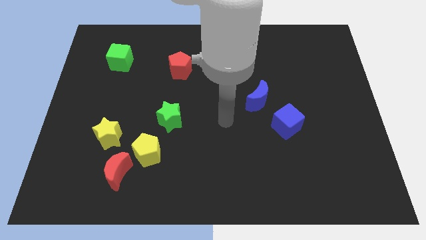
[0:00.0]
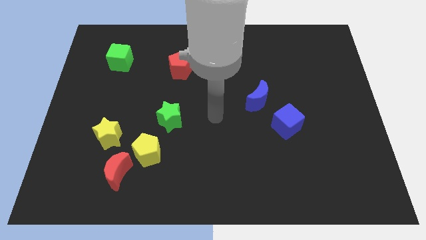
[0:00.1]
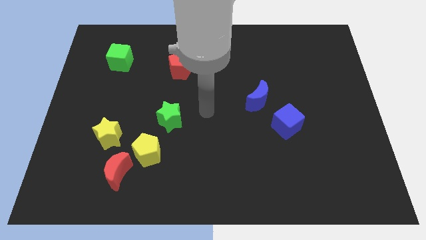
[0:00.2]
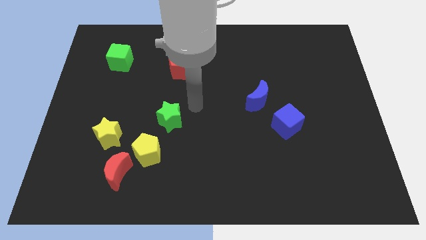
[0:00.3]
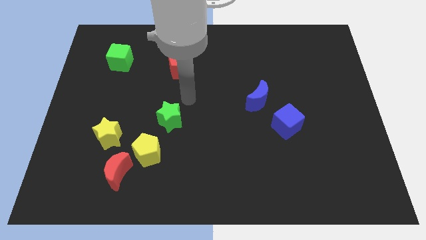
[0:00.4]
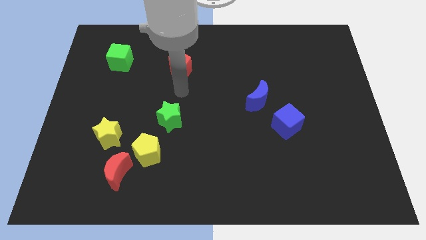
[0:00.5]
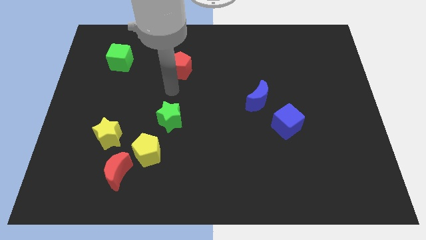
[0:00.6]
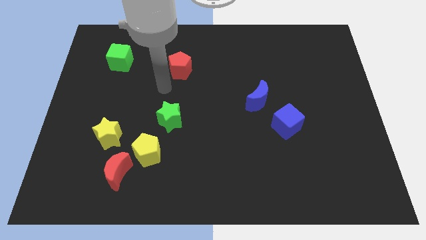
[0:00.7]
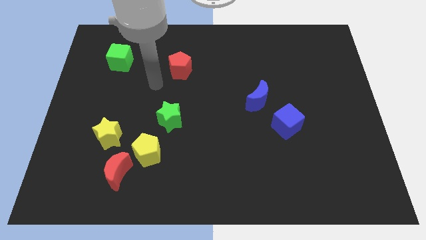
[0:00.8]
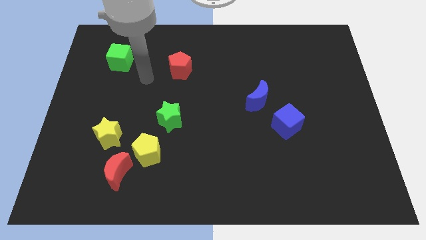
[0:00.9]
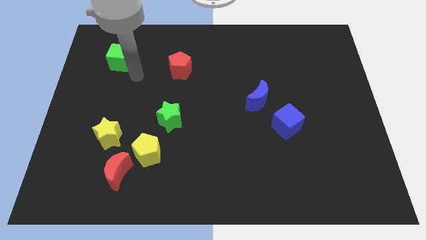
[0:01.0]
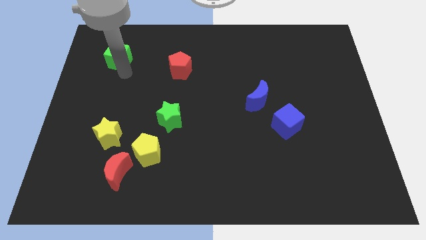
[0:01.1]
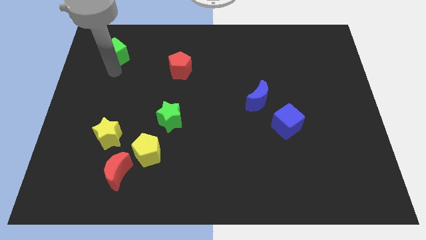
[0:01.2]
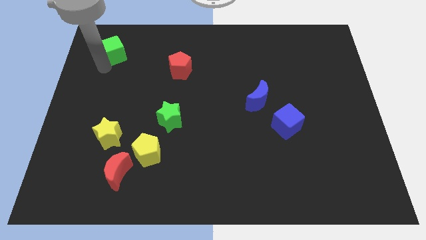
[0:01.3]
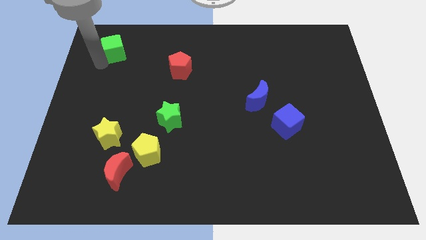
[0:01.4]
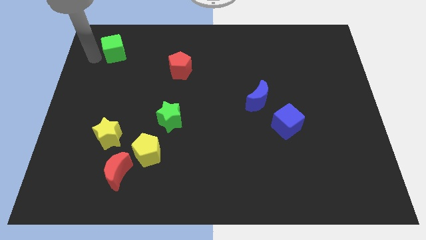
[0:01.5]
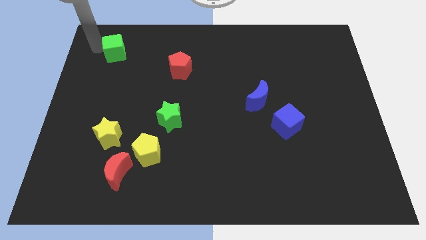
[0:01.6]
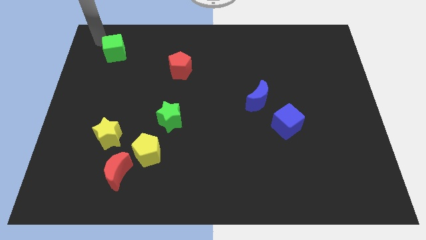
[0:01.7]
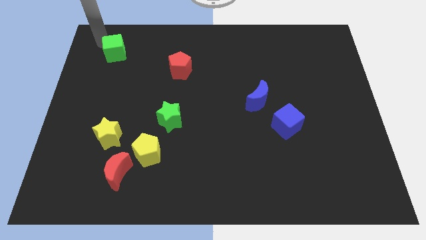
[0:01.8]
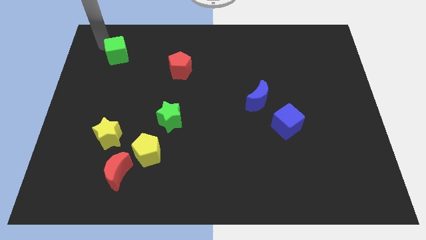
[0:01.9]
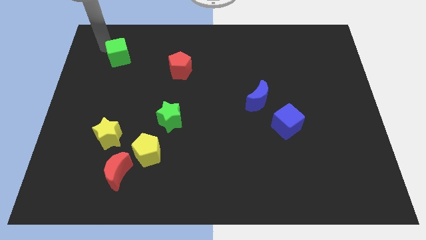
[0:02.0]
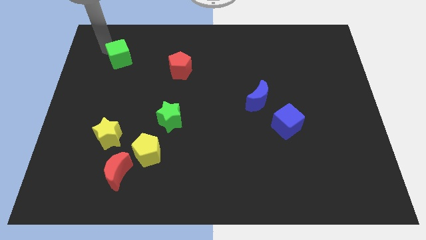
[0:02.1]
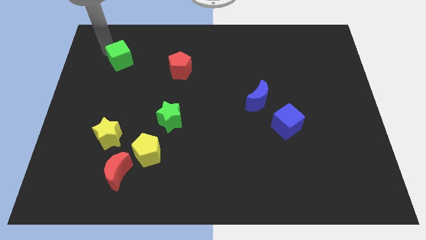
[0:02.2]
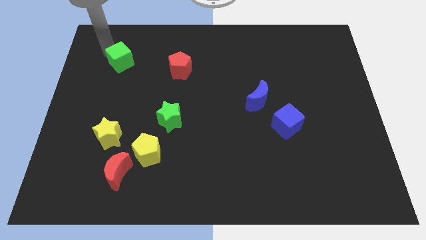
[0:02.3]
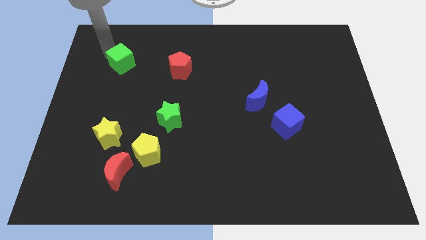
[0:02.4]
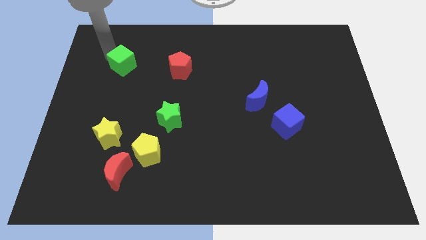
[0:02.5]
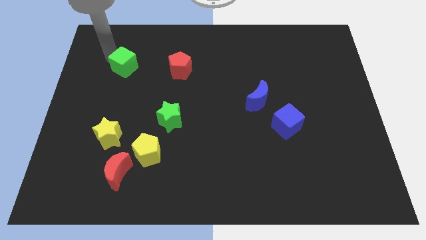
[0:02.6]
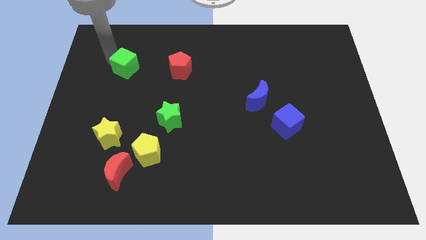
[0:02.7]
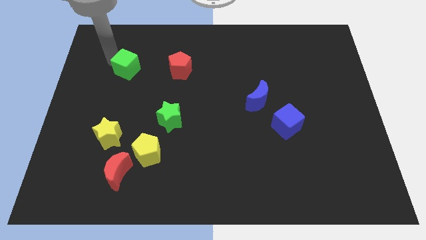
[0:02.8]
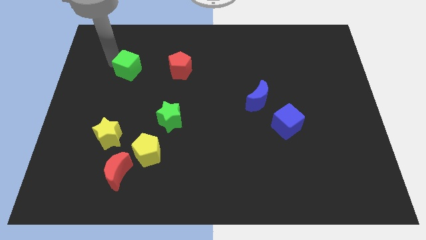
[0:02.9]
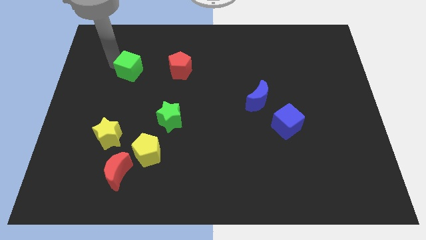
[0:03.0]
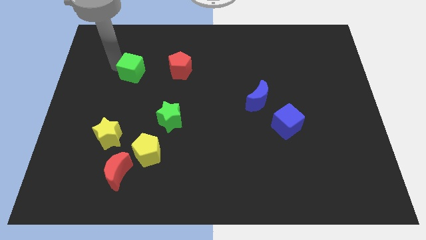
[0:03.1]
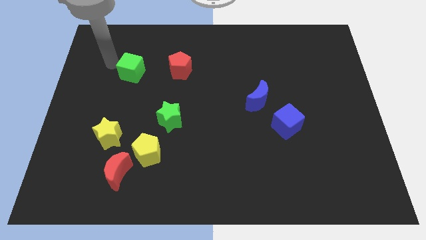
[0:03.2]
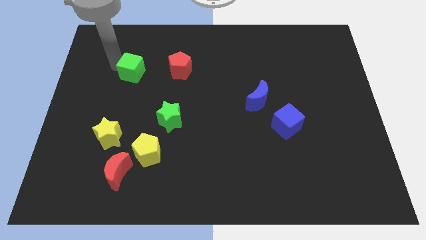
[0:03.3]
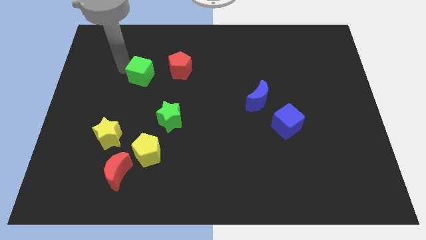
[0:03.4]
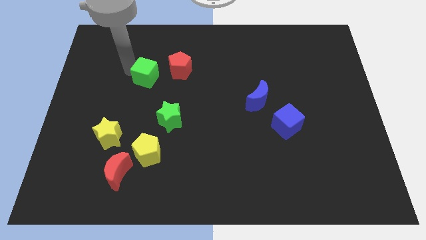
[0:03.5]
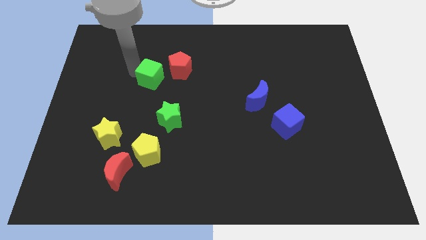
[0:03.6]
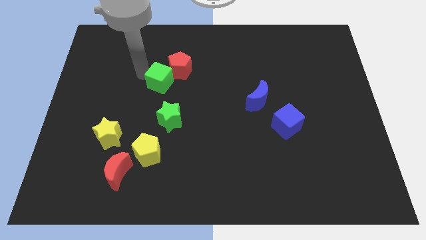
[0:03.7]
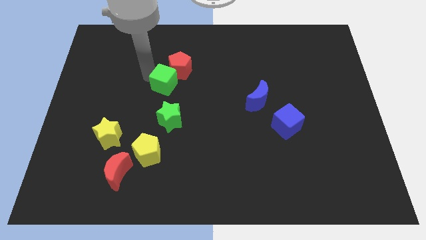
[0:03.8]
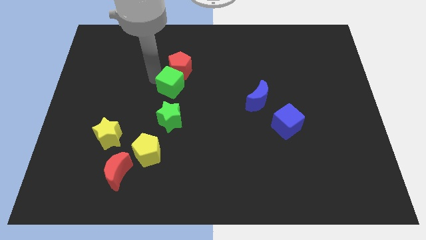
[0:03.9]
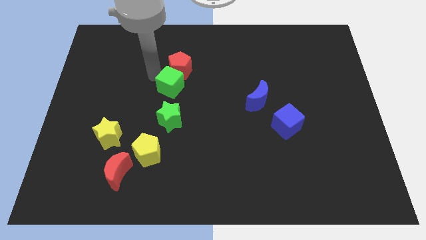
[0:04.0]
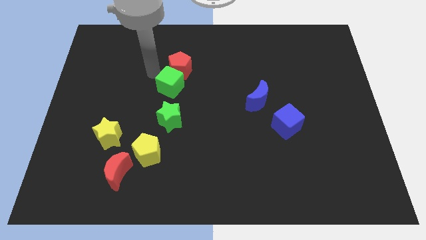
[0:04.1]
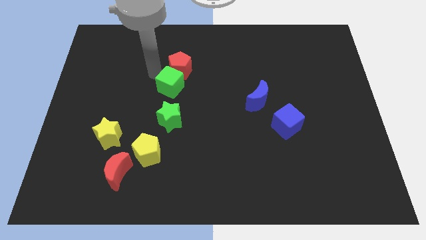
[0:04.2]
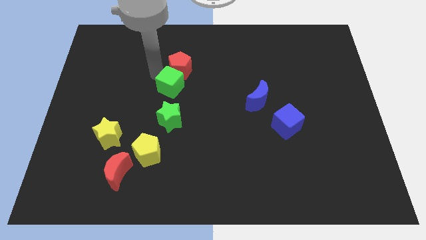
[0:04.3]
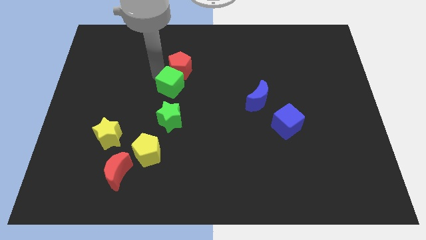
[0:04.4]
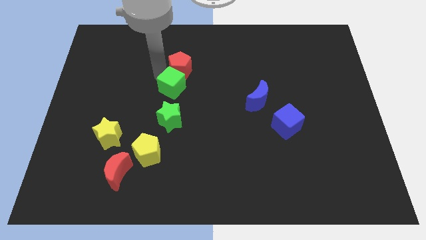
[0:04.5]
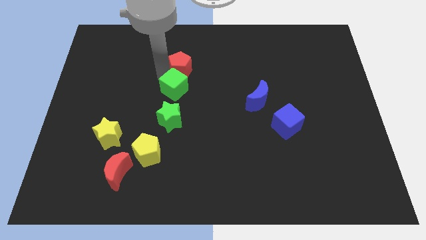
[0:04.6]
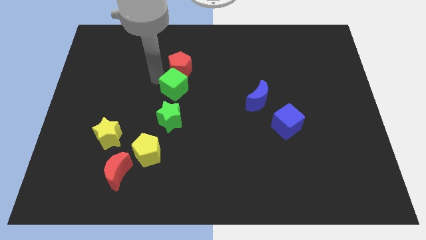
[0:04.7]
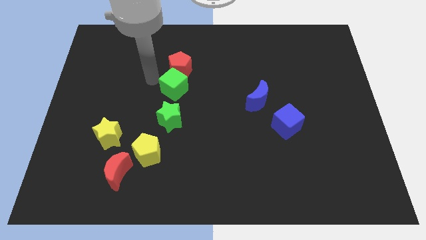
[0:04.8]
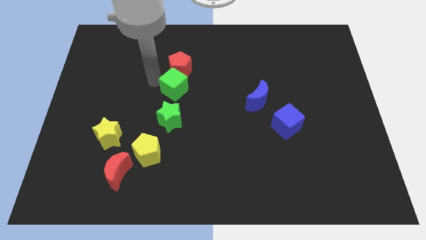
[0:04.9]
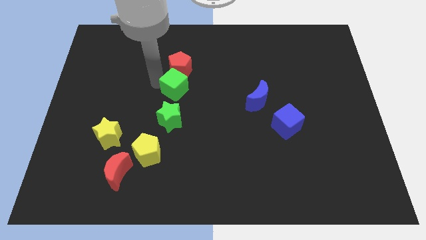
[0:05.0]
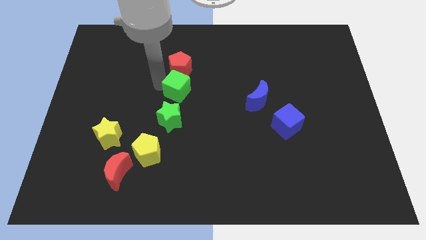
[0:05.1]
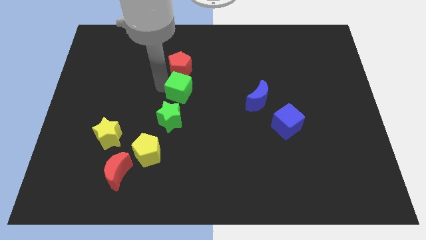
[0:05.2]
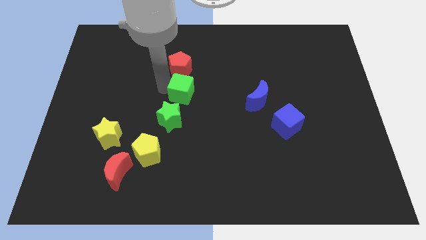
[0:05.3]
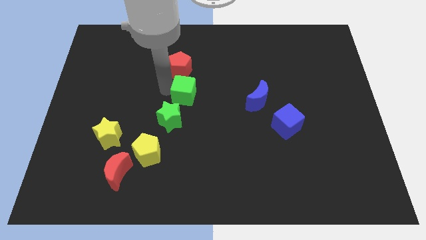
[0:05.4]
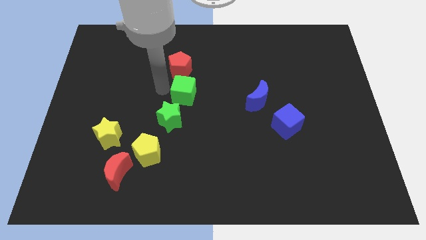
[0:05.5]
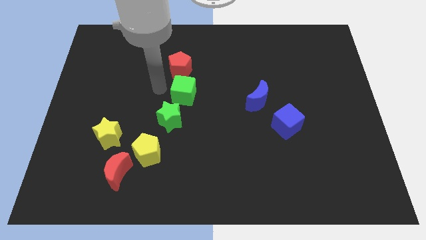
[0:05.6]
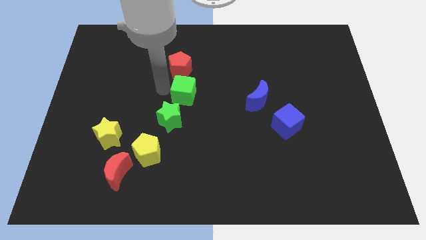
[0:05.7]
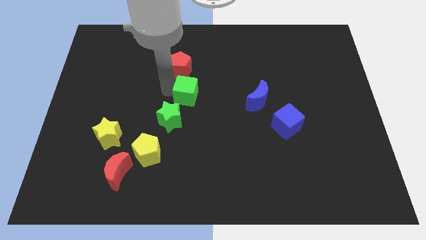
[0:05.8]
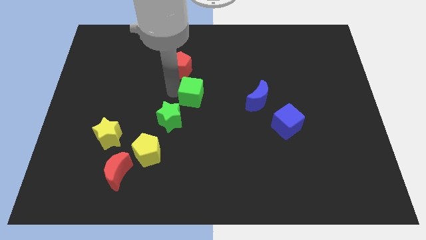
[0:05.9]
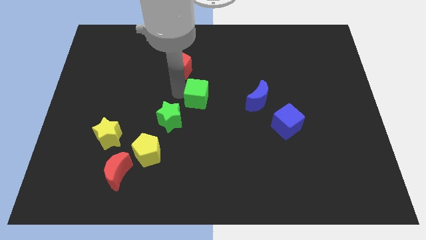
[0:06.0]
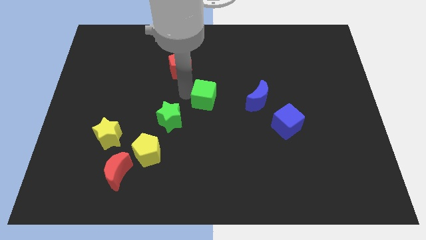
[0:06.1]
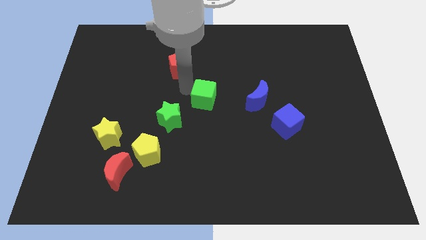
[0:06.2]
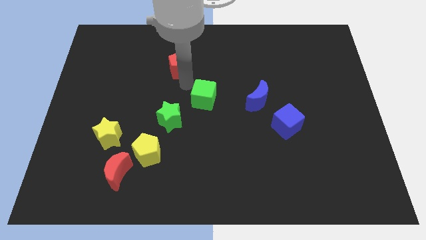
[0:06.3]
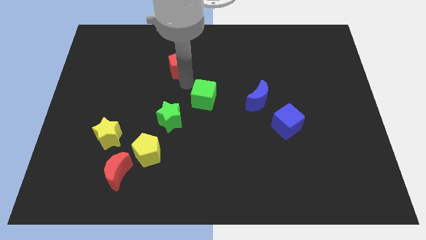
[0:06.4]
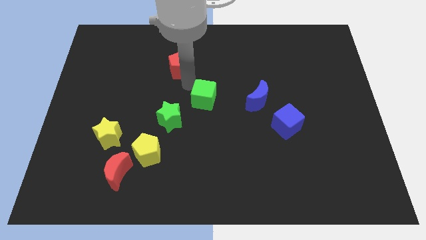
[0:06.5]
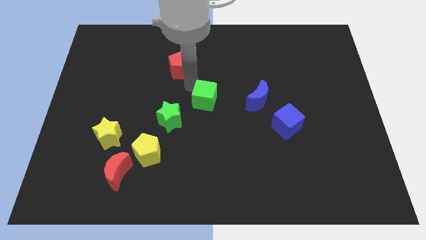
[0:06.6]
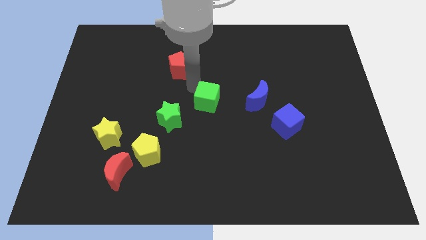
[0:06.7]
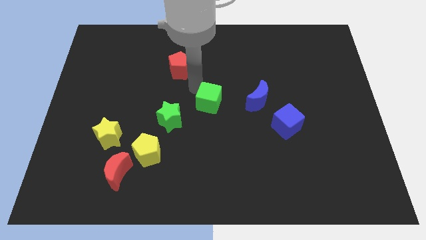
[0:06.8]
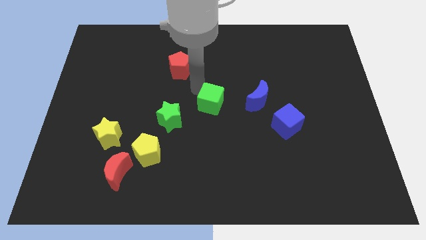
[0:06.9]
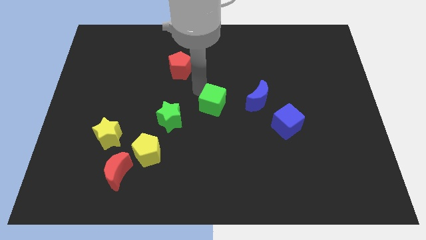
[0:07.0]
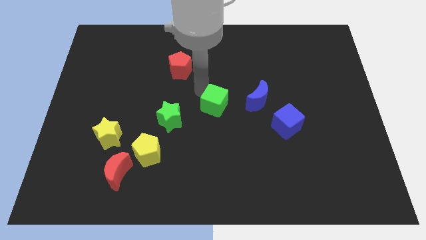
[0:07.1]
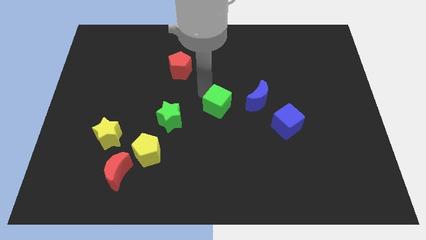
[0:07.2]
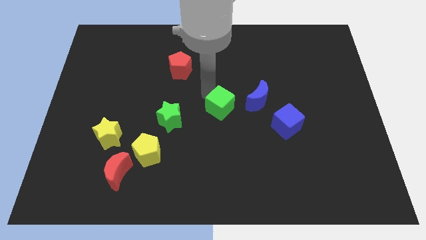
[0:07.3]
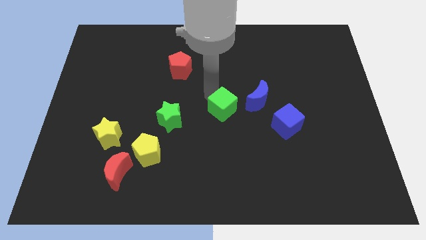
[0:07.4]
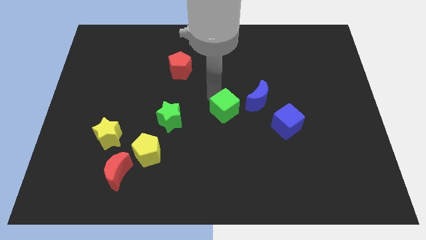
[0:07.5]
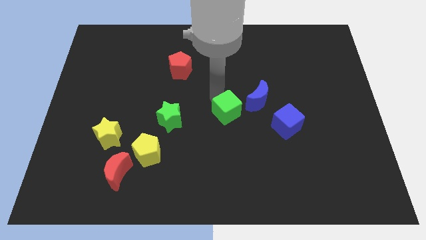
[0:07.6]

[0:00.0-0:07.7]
slide the green cube just left of the blue cube
